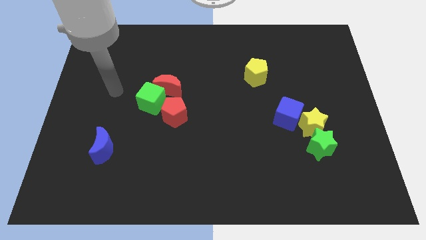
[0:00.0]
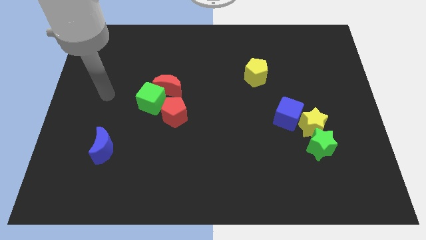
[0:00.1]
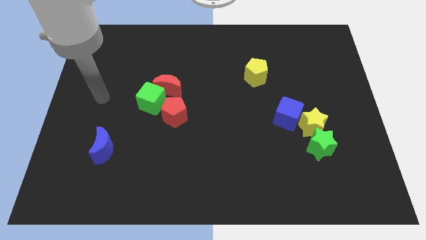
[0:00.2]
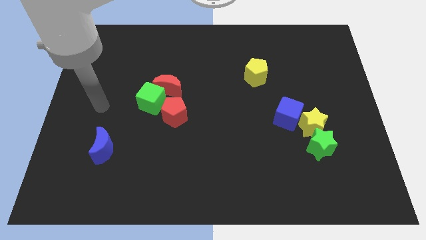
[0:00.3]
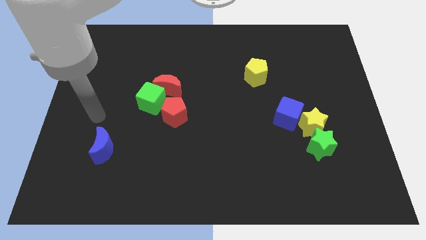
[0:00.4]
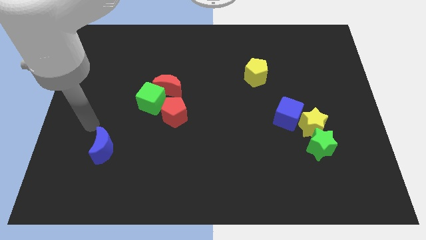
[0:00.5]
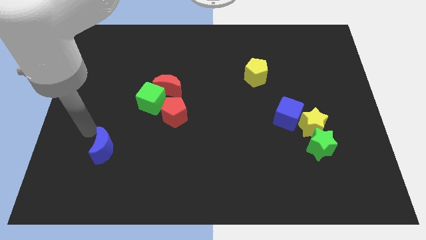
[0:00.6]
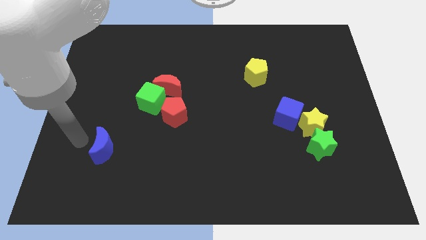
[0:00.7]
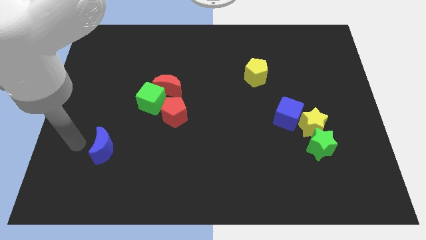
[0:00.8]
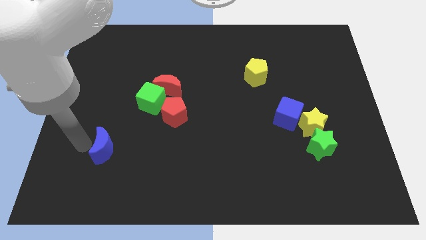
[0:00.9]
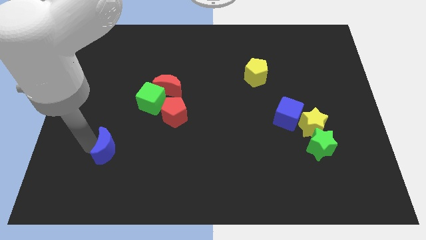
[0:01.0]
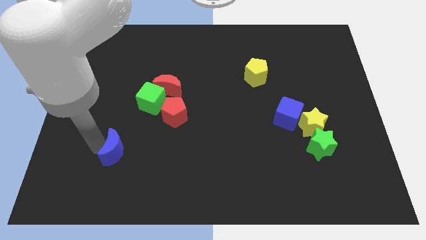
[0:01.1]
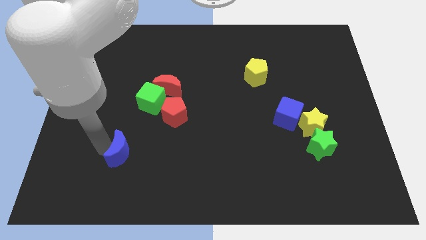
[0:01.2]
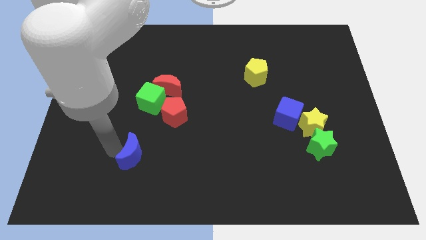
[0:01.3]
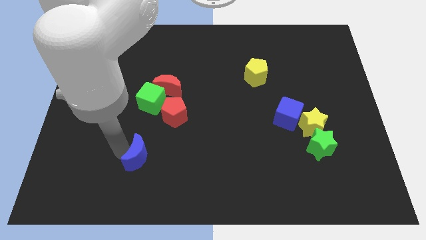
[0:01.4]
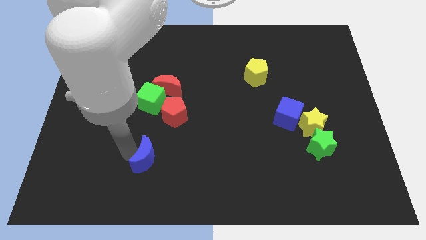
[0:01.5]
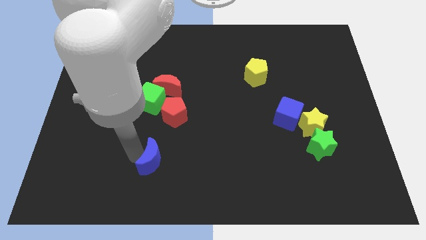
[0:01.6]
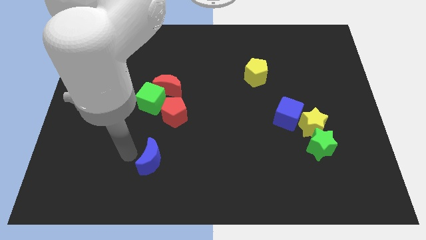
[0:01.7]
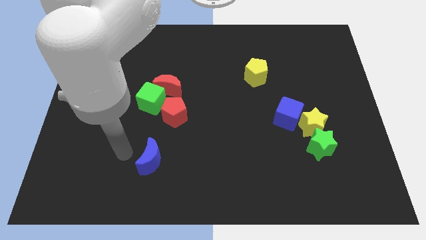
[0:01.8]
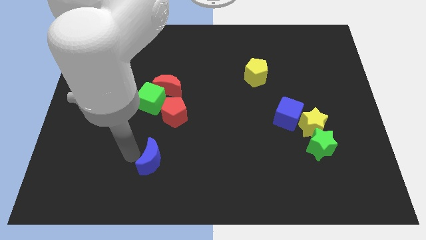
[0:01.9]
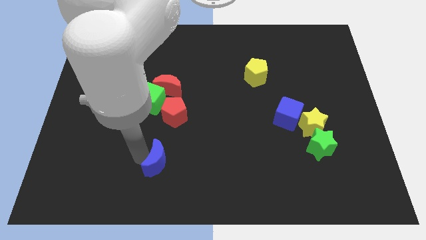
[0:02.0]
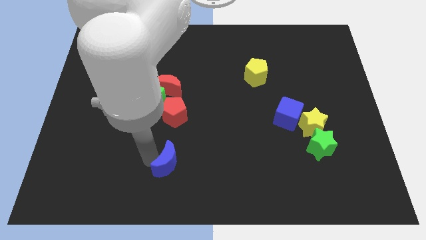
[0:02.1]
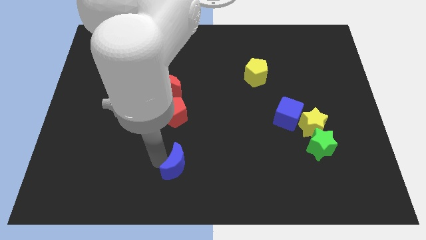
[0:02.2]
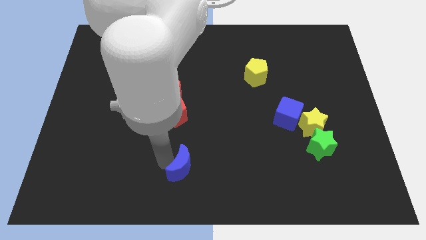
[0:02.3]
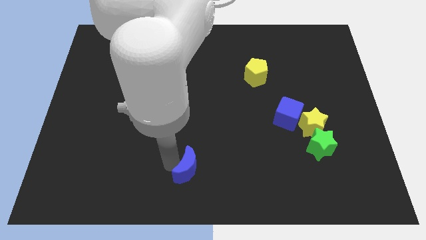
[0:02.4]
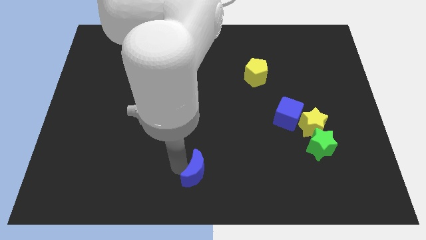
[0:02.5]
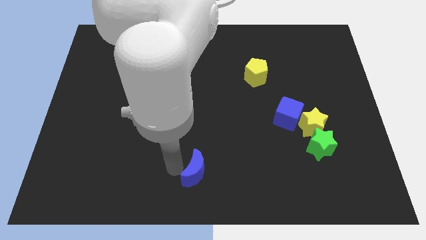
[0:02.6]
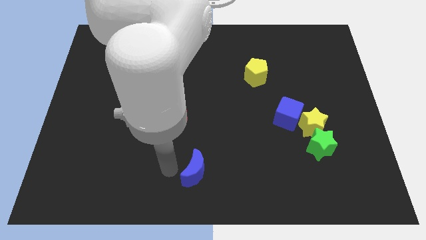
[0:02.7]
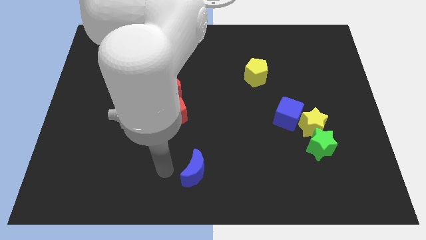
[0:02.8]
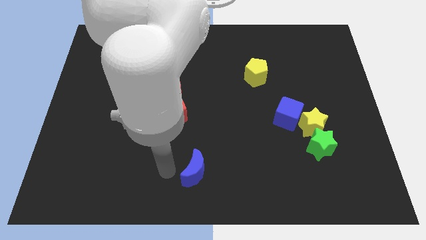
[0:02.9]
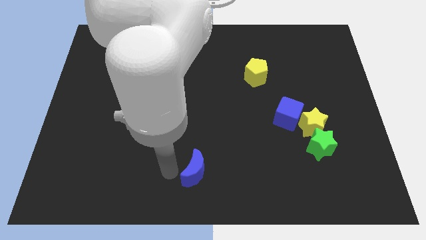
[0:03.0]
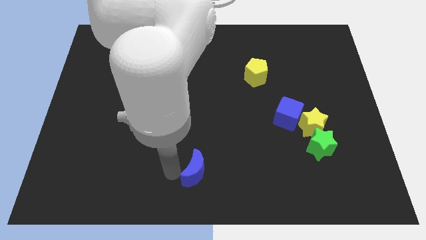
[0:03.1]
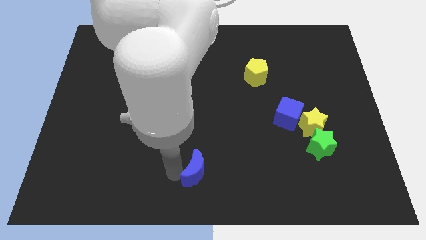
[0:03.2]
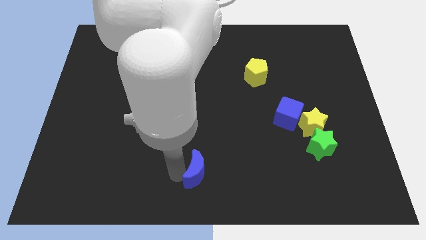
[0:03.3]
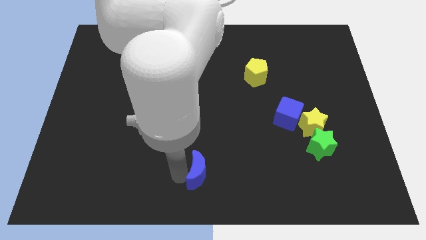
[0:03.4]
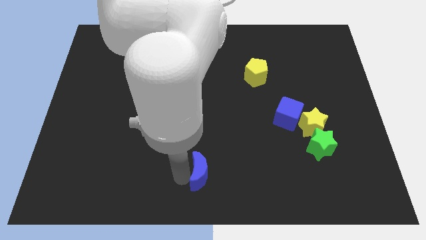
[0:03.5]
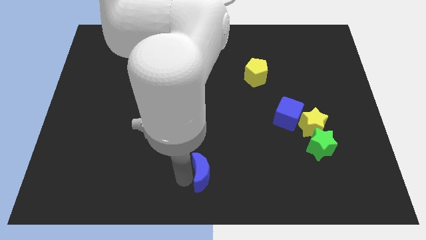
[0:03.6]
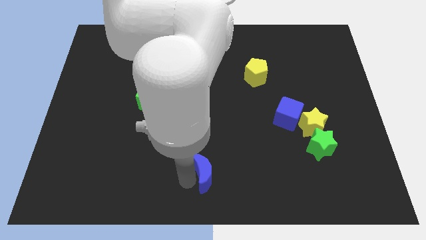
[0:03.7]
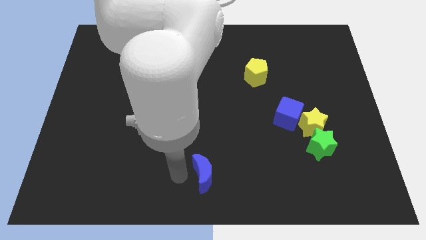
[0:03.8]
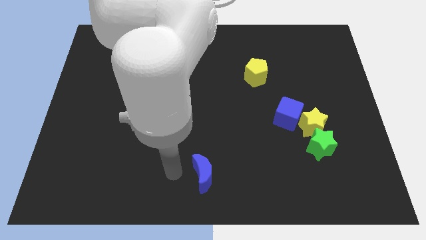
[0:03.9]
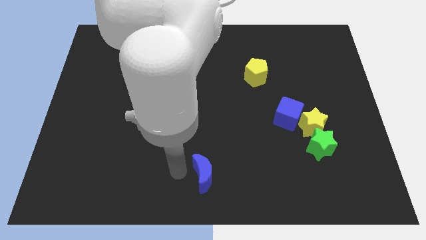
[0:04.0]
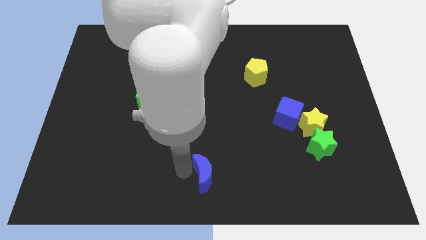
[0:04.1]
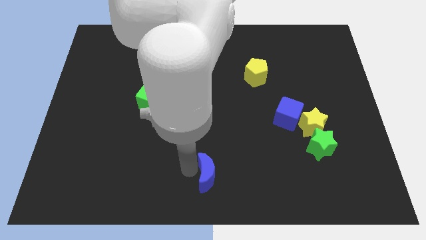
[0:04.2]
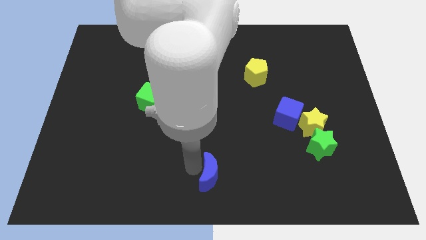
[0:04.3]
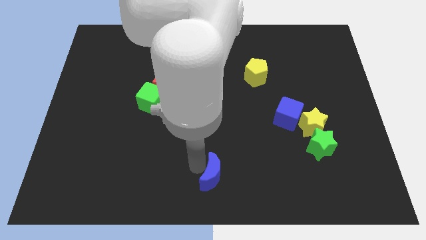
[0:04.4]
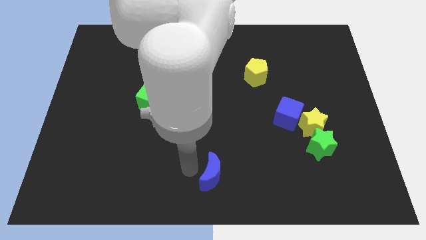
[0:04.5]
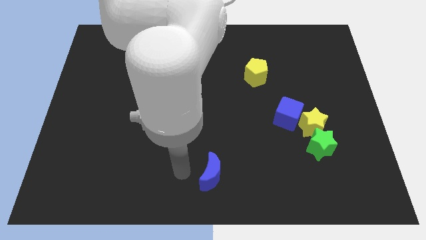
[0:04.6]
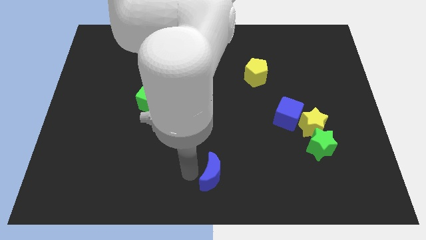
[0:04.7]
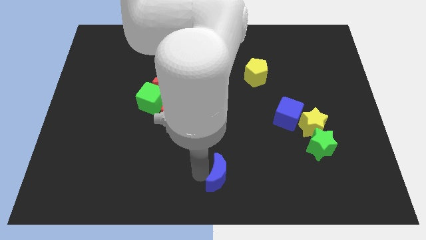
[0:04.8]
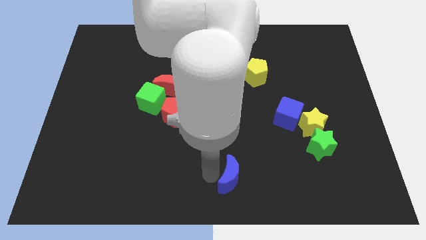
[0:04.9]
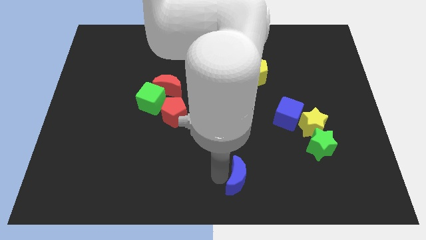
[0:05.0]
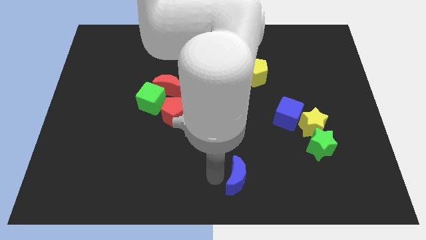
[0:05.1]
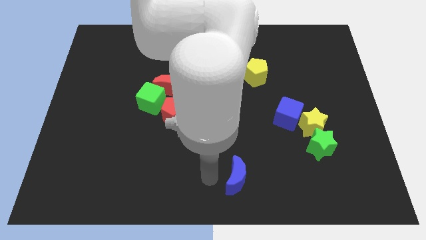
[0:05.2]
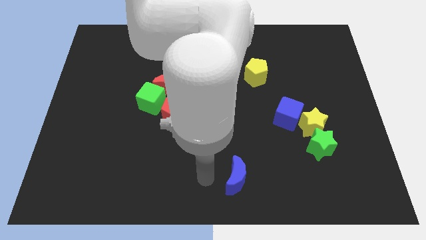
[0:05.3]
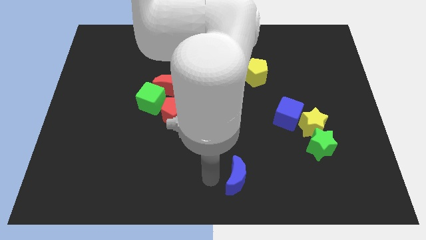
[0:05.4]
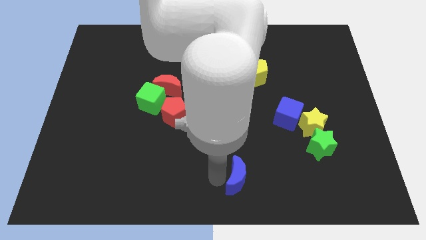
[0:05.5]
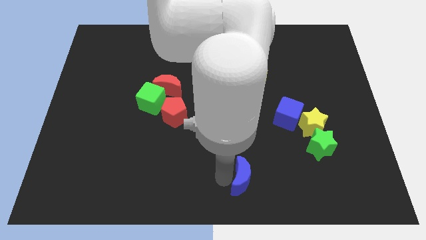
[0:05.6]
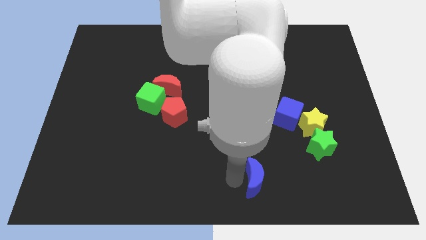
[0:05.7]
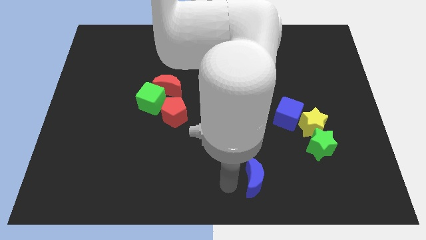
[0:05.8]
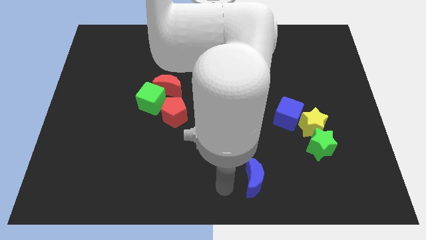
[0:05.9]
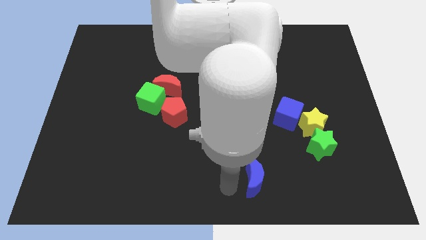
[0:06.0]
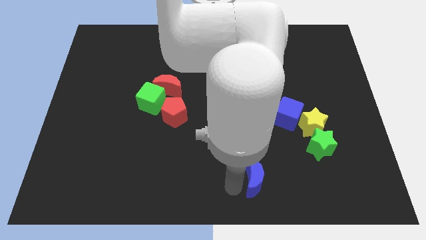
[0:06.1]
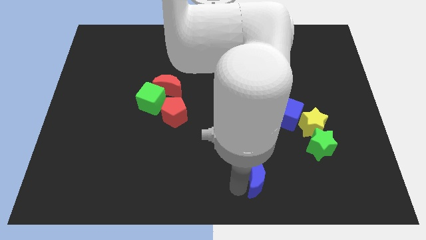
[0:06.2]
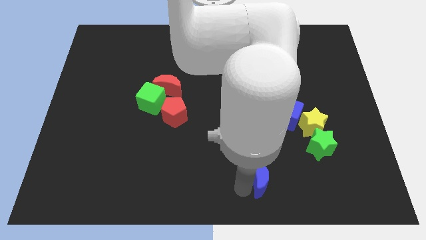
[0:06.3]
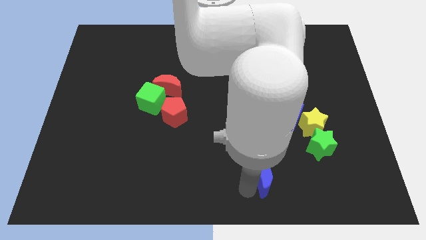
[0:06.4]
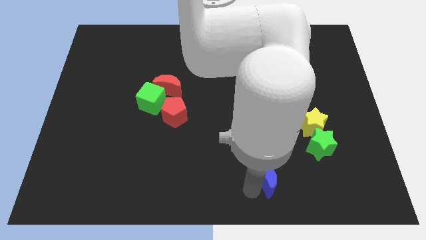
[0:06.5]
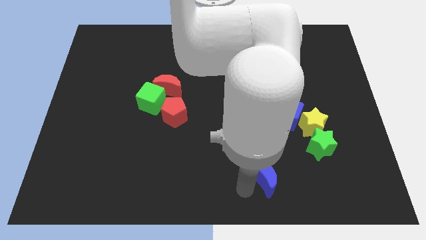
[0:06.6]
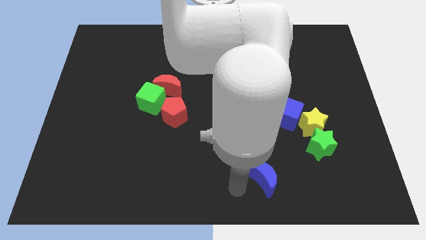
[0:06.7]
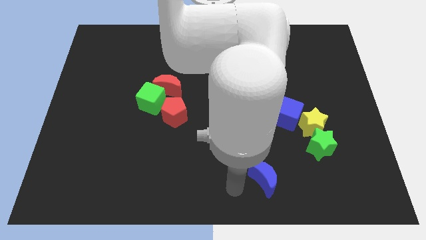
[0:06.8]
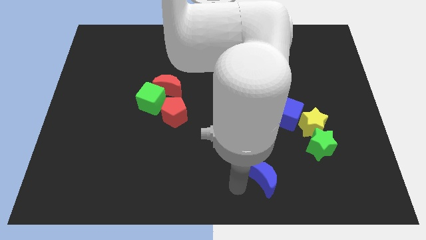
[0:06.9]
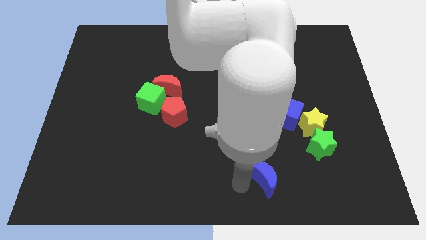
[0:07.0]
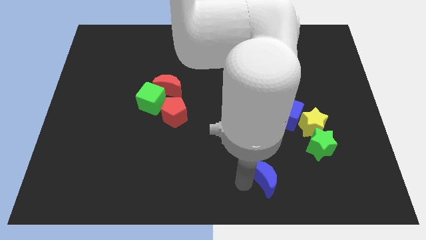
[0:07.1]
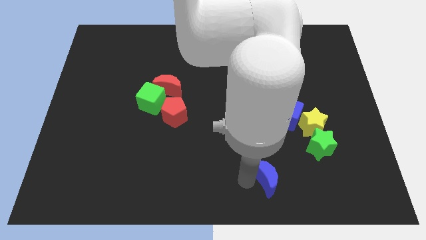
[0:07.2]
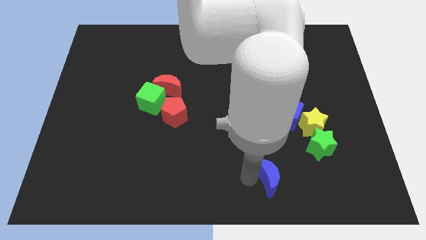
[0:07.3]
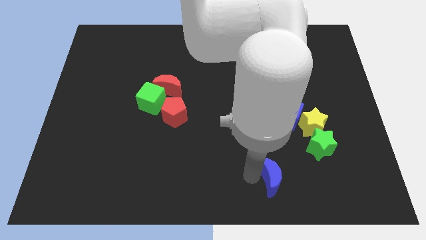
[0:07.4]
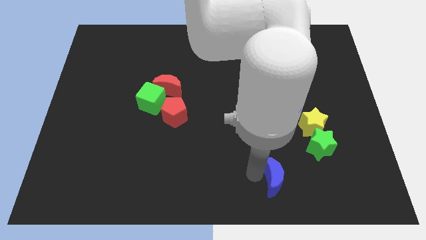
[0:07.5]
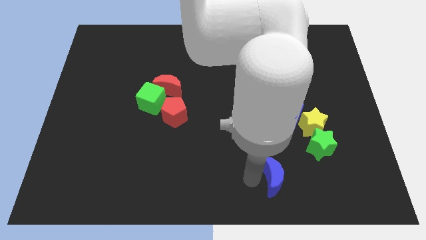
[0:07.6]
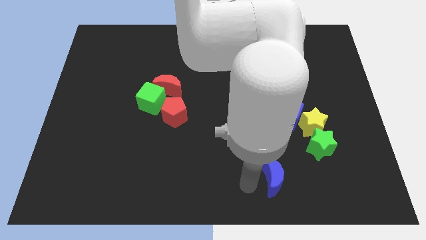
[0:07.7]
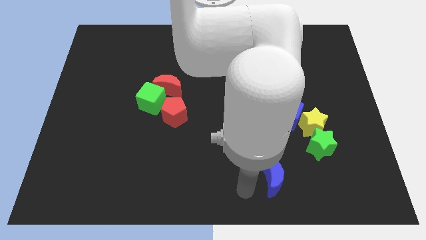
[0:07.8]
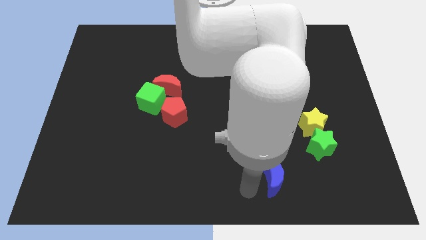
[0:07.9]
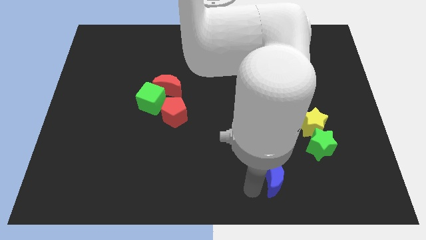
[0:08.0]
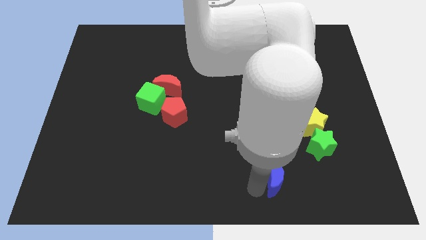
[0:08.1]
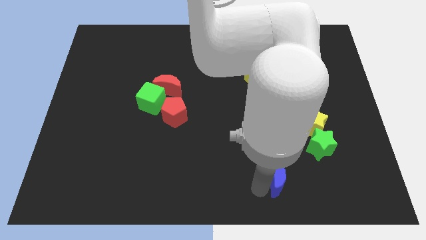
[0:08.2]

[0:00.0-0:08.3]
push the blue moon to the bottom left of the green star
